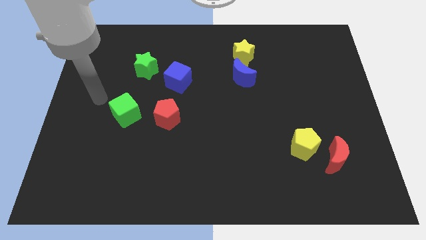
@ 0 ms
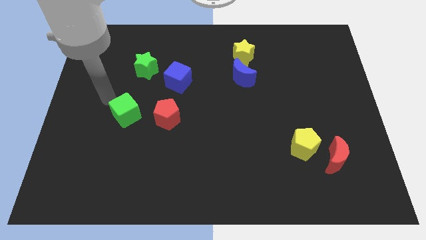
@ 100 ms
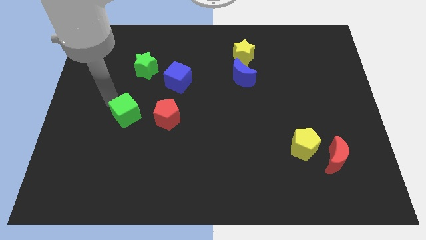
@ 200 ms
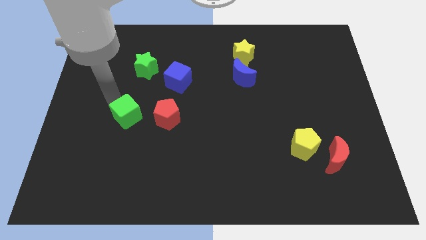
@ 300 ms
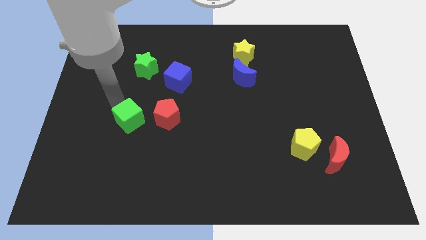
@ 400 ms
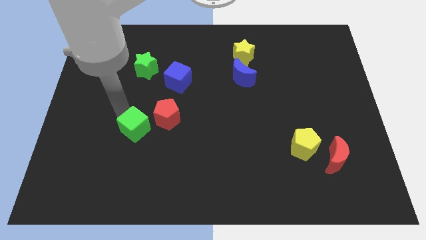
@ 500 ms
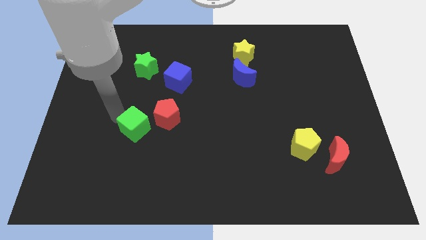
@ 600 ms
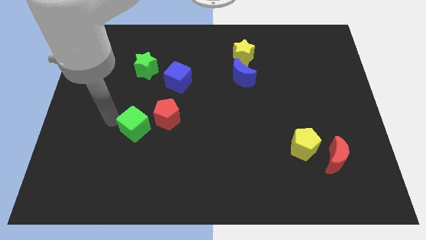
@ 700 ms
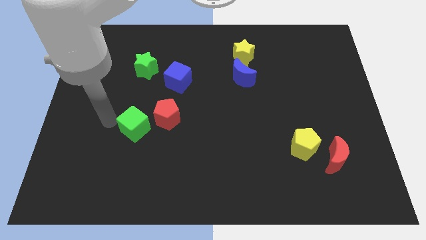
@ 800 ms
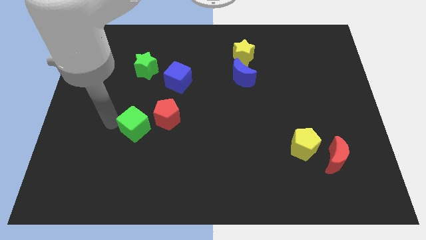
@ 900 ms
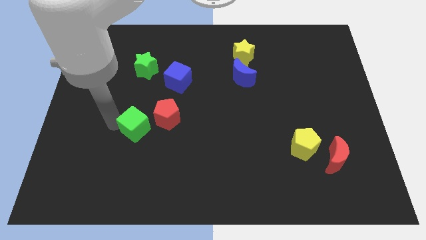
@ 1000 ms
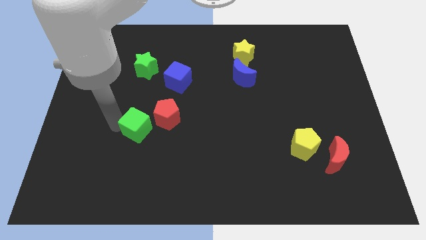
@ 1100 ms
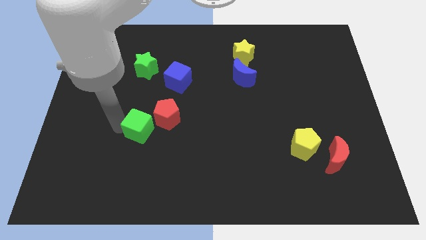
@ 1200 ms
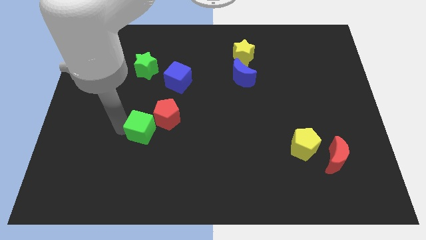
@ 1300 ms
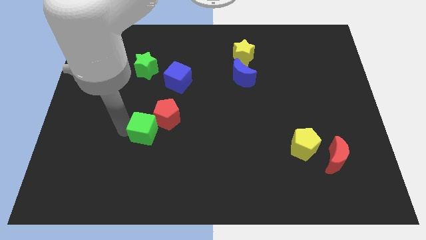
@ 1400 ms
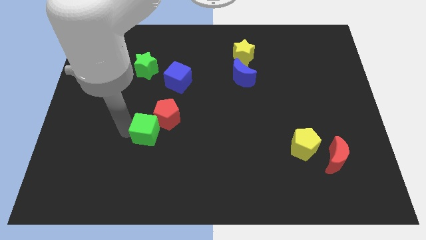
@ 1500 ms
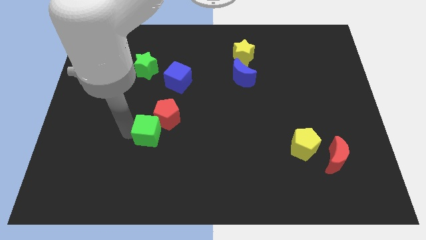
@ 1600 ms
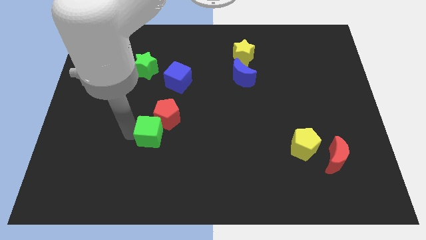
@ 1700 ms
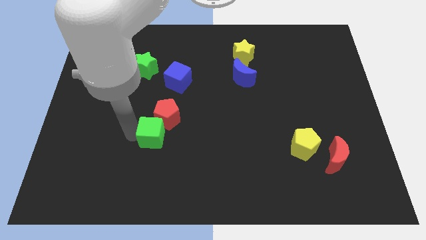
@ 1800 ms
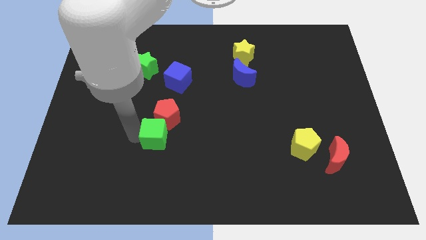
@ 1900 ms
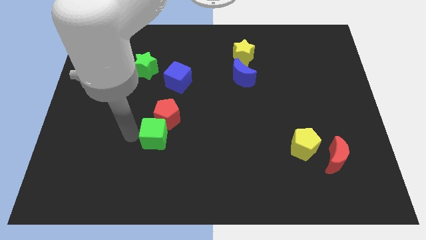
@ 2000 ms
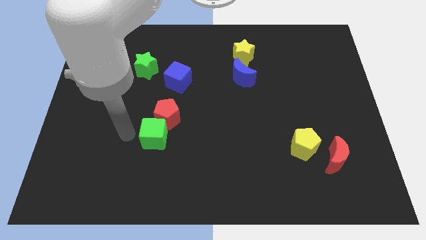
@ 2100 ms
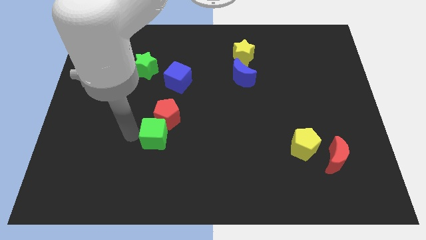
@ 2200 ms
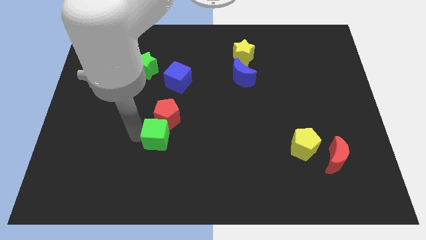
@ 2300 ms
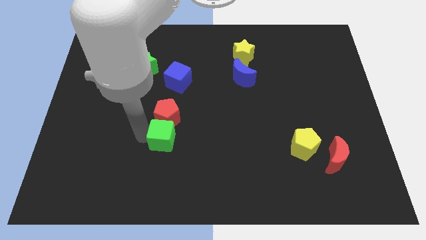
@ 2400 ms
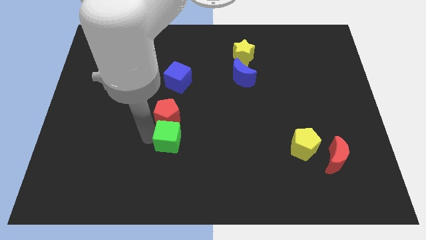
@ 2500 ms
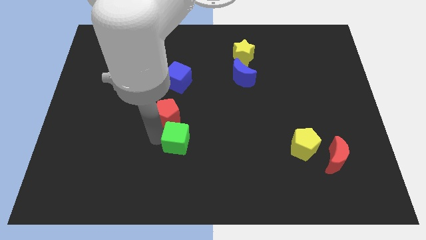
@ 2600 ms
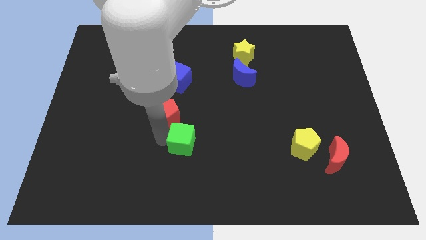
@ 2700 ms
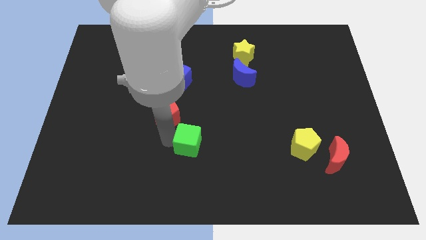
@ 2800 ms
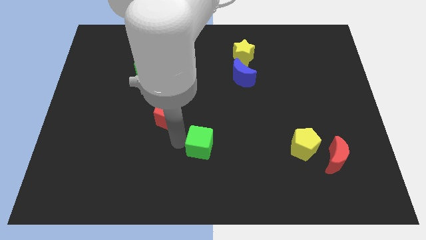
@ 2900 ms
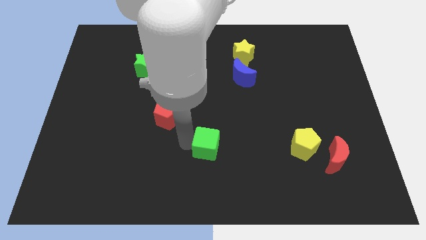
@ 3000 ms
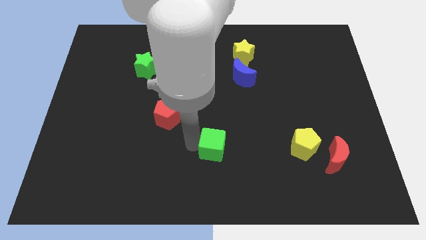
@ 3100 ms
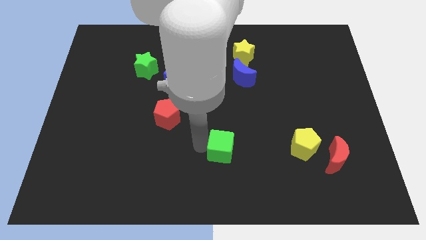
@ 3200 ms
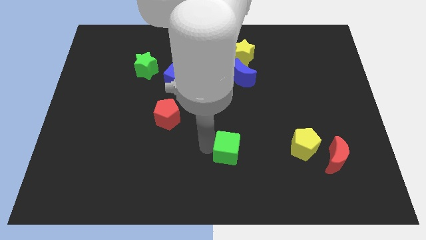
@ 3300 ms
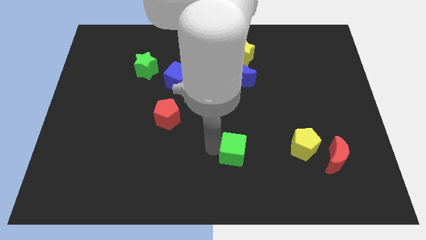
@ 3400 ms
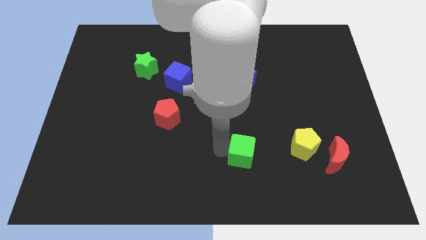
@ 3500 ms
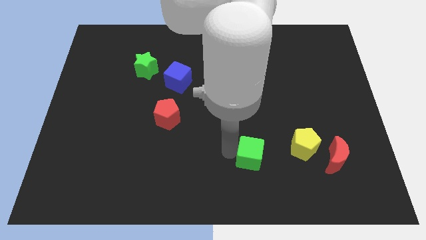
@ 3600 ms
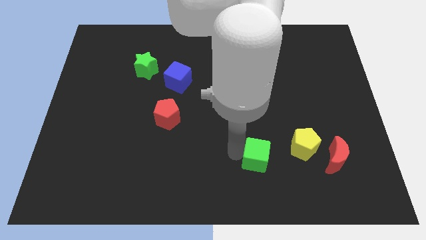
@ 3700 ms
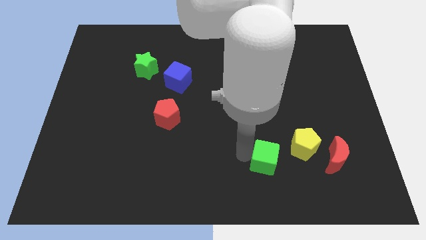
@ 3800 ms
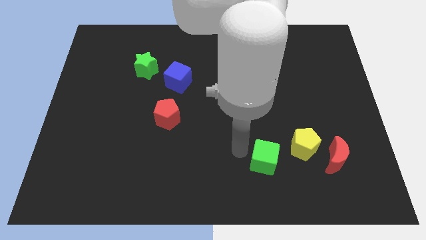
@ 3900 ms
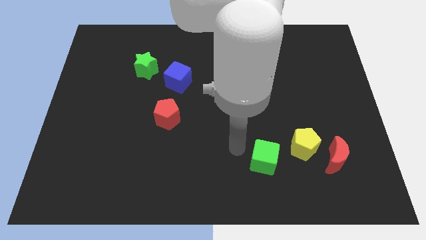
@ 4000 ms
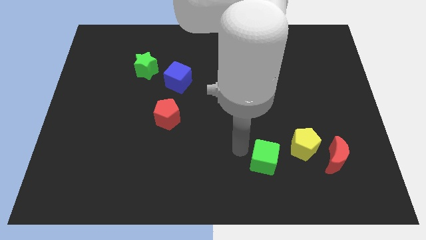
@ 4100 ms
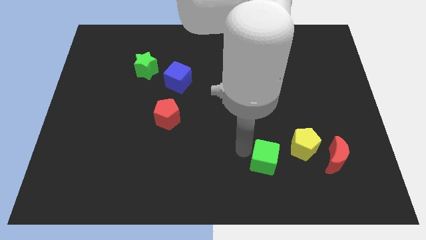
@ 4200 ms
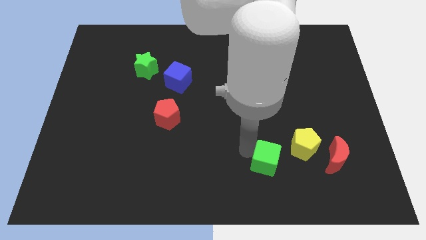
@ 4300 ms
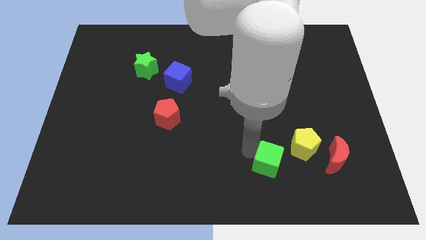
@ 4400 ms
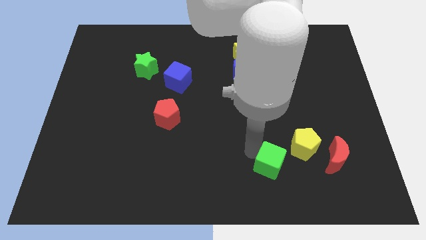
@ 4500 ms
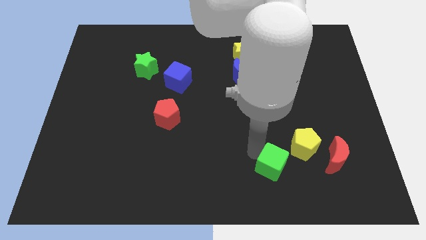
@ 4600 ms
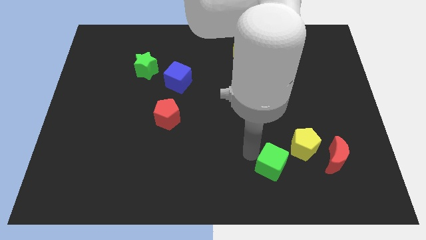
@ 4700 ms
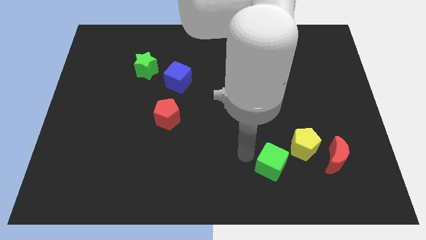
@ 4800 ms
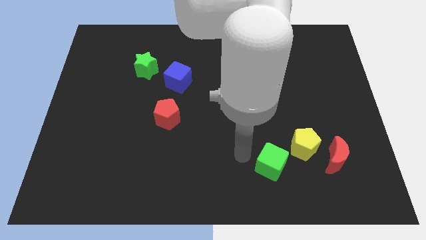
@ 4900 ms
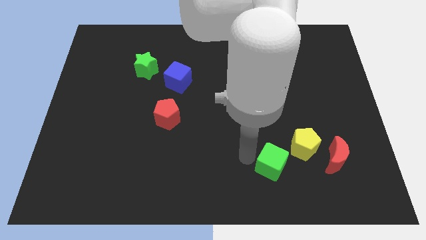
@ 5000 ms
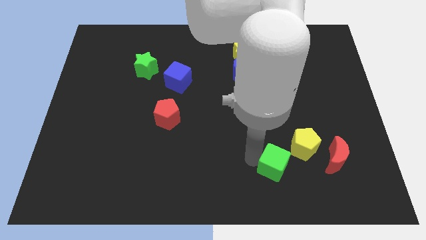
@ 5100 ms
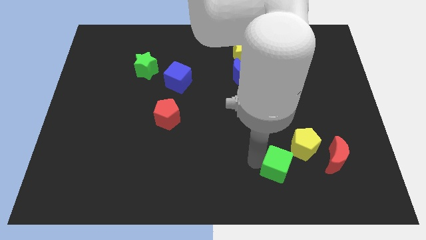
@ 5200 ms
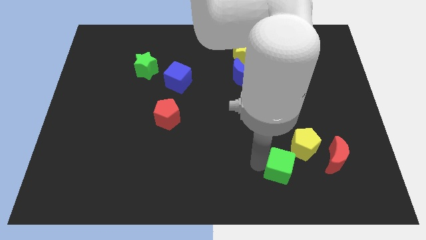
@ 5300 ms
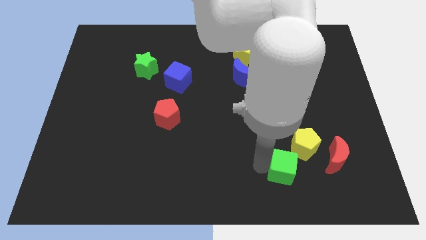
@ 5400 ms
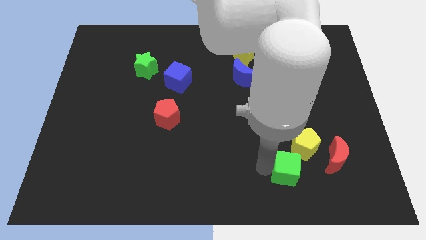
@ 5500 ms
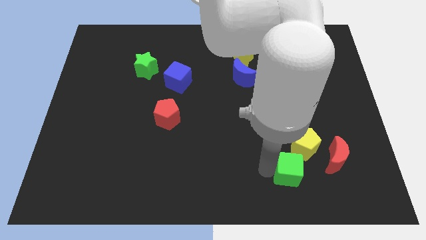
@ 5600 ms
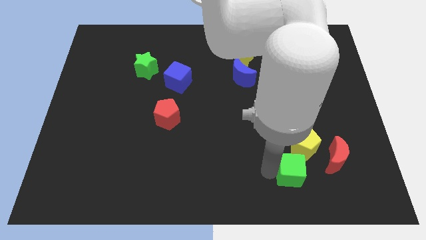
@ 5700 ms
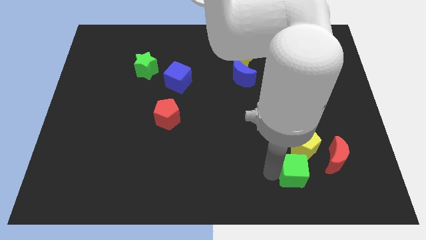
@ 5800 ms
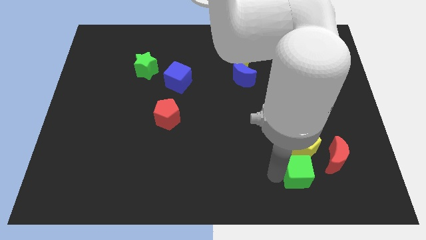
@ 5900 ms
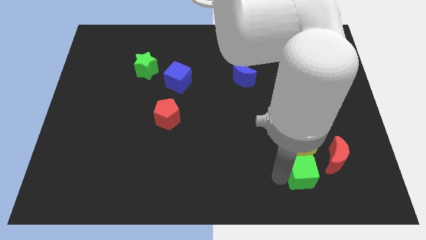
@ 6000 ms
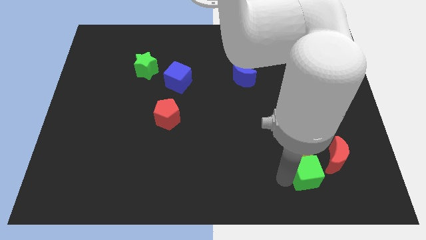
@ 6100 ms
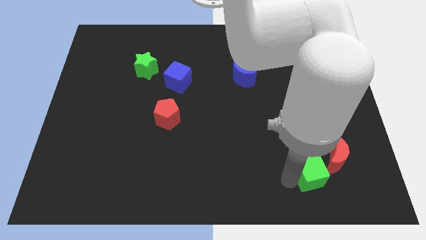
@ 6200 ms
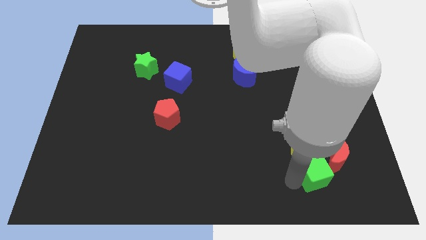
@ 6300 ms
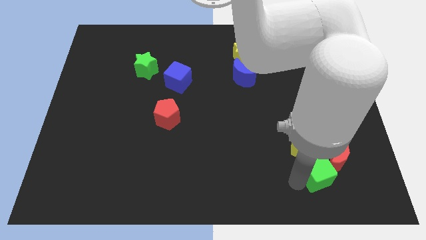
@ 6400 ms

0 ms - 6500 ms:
slide the green cube to the red moon

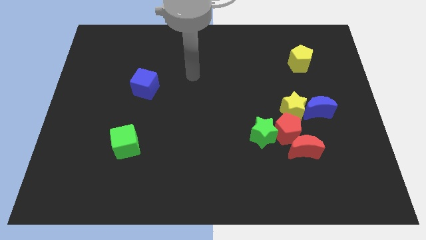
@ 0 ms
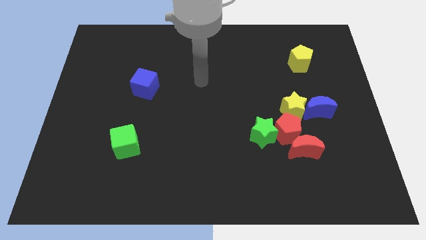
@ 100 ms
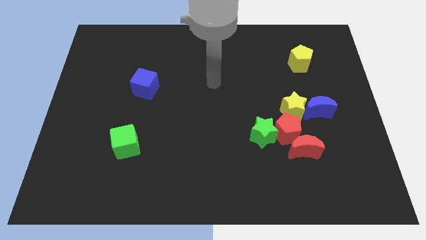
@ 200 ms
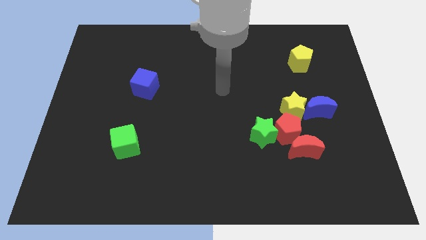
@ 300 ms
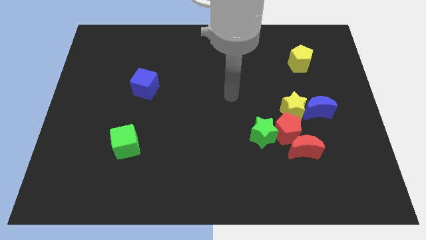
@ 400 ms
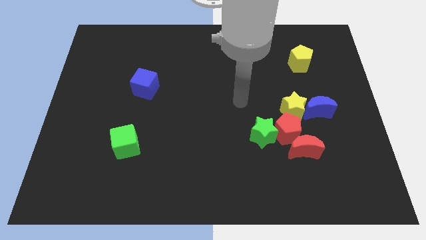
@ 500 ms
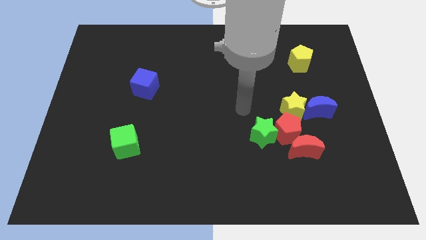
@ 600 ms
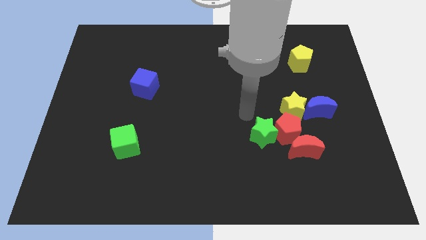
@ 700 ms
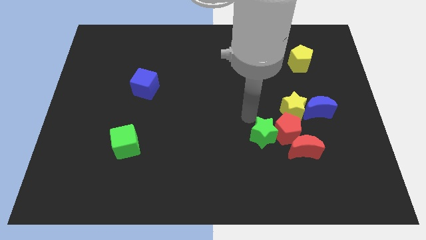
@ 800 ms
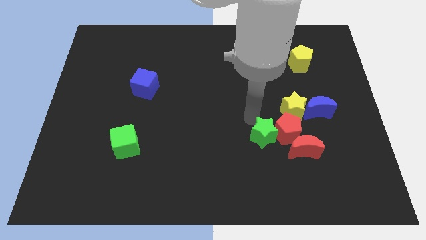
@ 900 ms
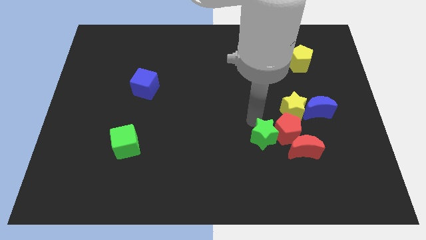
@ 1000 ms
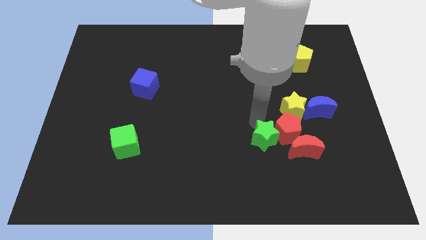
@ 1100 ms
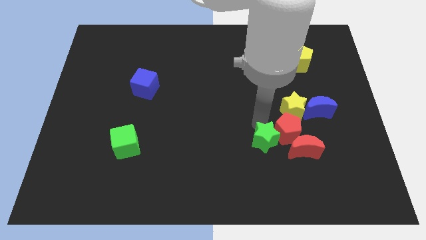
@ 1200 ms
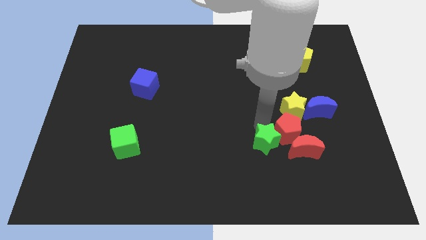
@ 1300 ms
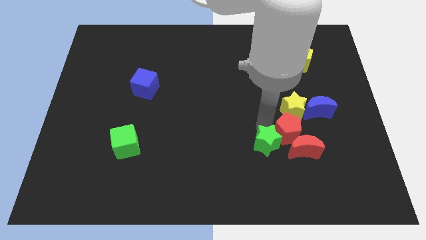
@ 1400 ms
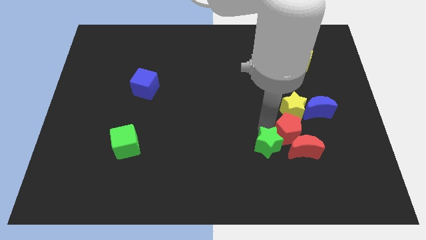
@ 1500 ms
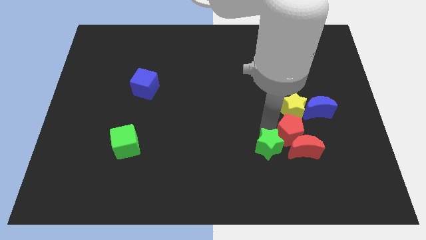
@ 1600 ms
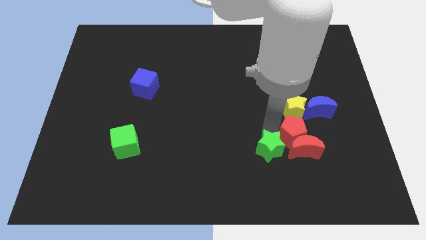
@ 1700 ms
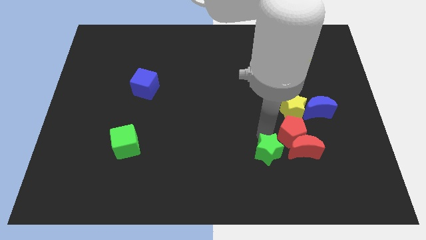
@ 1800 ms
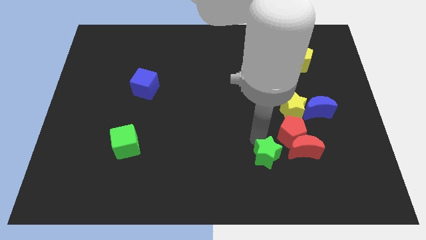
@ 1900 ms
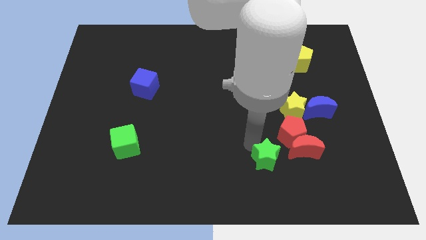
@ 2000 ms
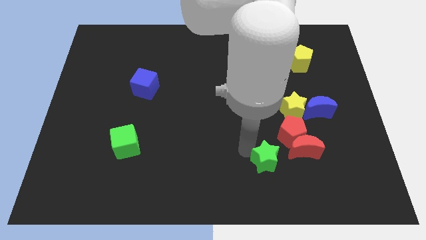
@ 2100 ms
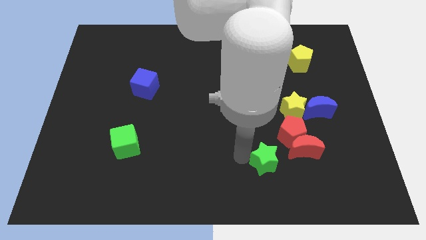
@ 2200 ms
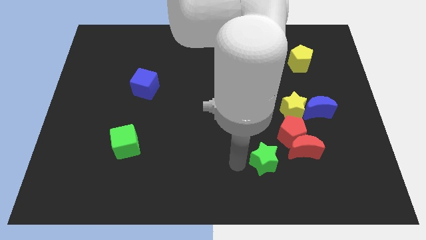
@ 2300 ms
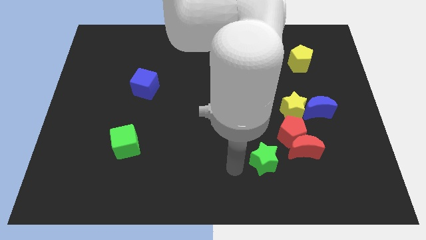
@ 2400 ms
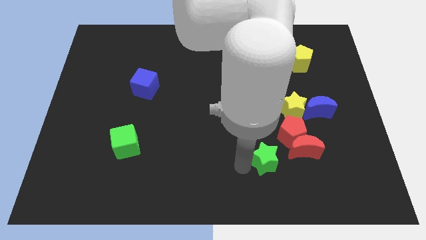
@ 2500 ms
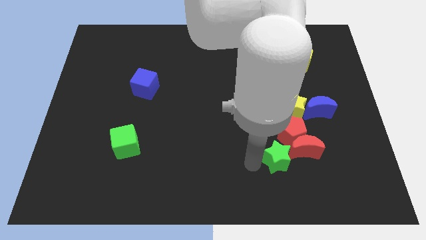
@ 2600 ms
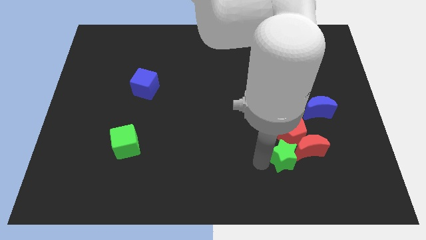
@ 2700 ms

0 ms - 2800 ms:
move the green star close to the red moon
